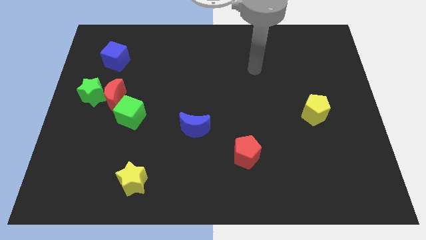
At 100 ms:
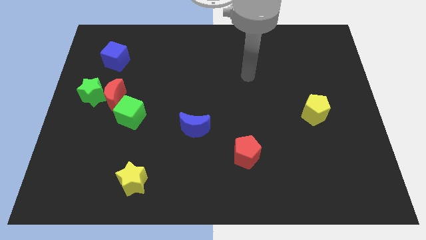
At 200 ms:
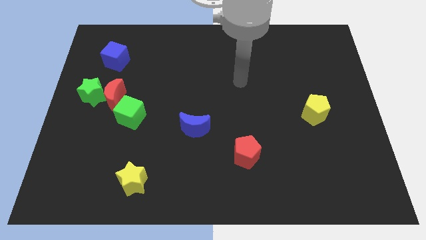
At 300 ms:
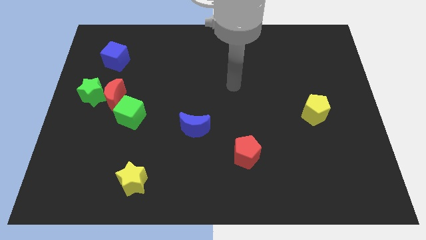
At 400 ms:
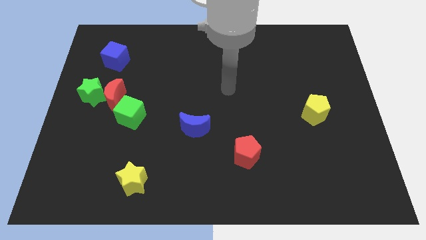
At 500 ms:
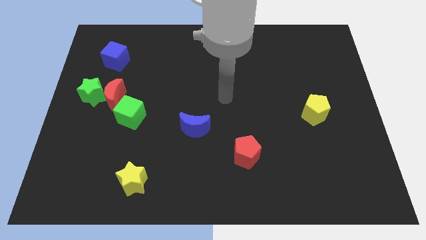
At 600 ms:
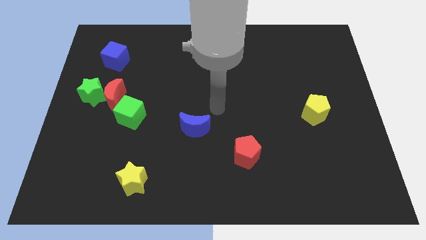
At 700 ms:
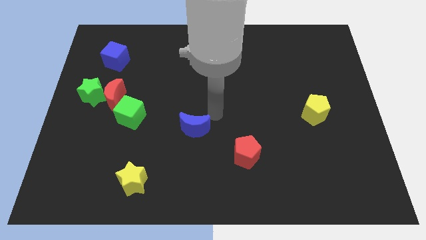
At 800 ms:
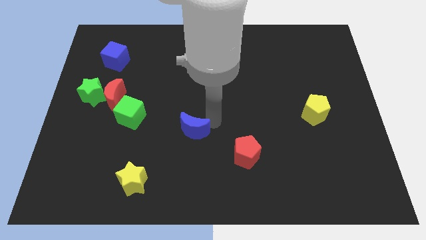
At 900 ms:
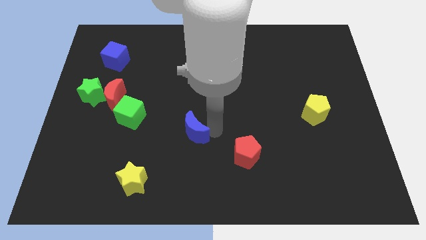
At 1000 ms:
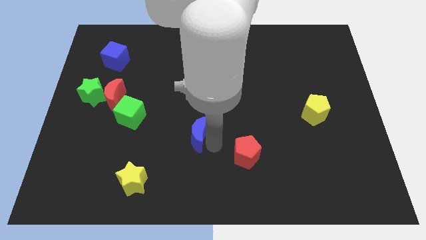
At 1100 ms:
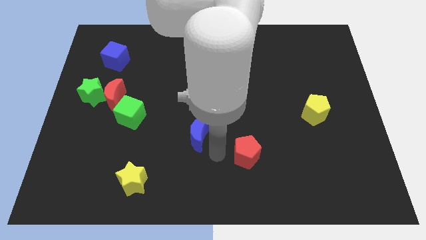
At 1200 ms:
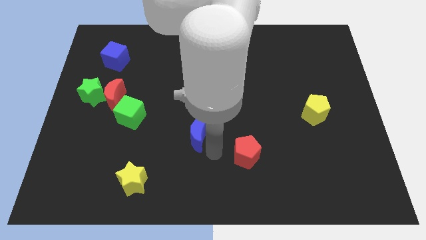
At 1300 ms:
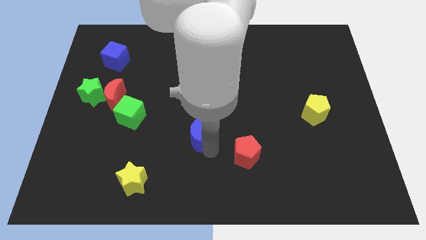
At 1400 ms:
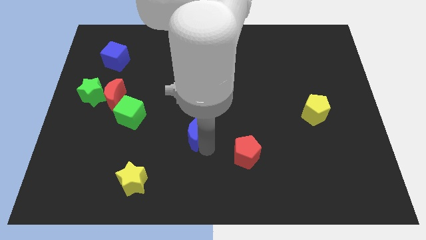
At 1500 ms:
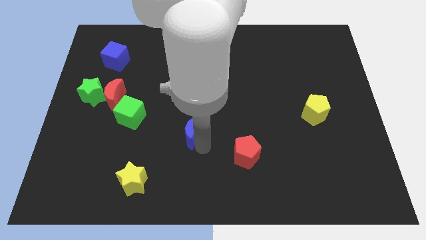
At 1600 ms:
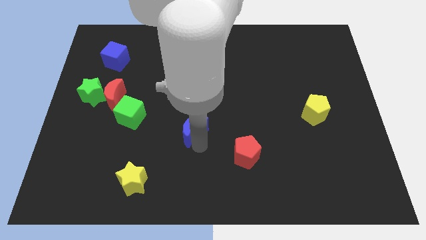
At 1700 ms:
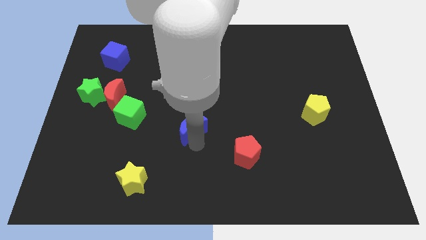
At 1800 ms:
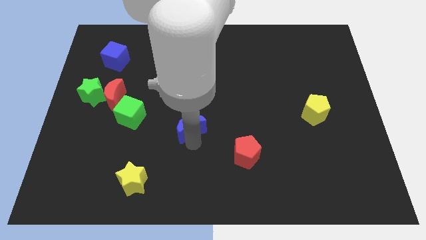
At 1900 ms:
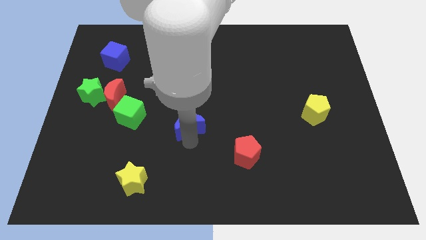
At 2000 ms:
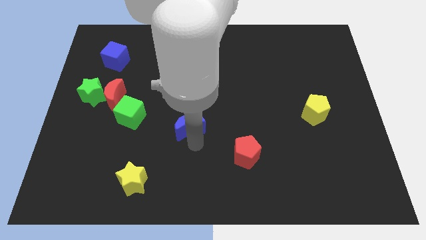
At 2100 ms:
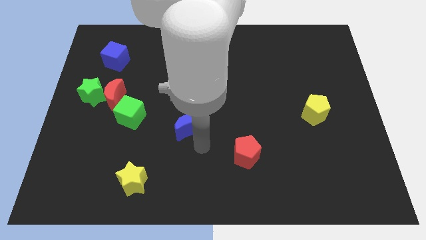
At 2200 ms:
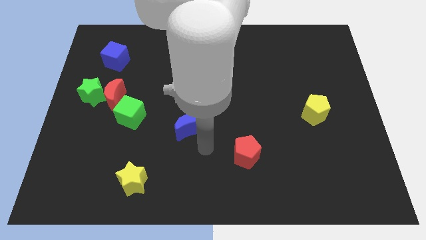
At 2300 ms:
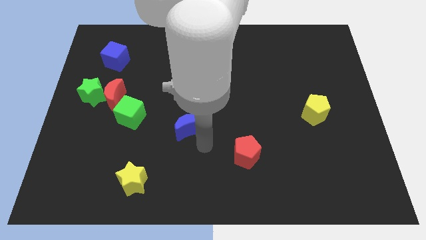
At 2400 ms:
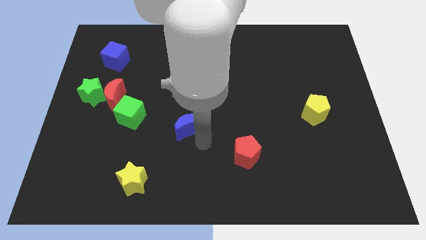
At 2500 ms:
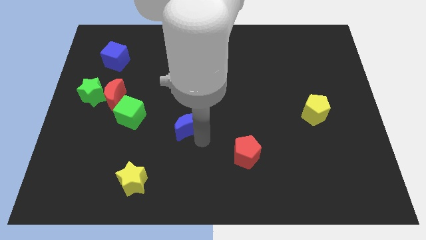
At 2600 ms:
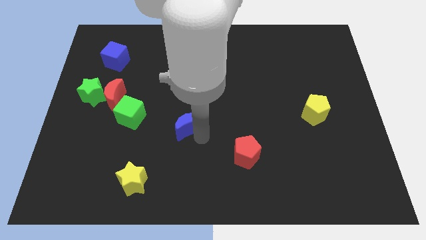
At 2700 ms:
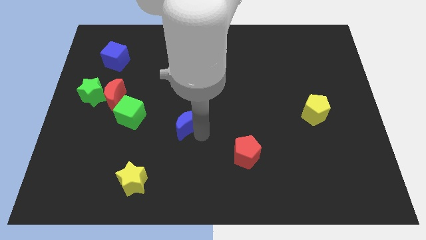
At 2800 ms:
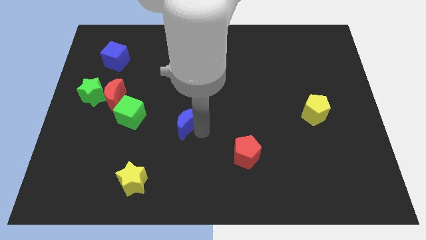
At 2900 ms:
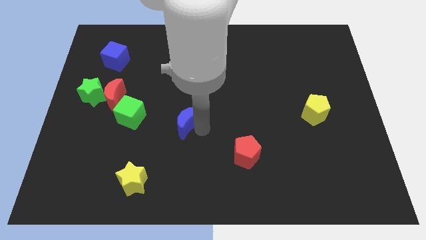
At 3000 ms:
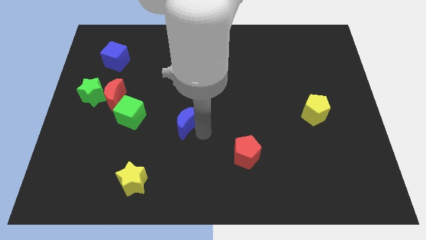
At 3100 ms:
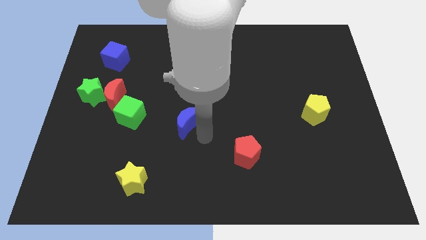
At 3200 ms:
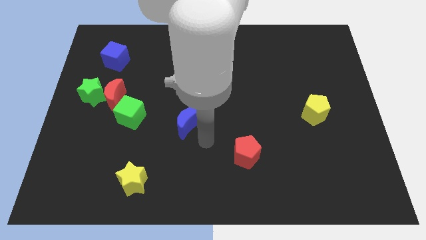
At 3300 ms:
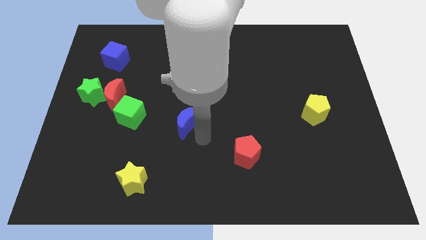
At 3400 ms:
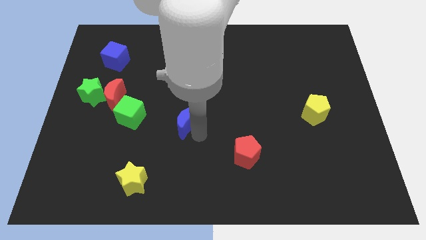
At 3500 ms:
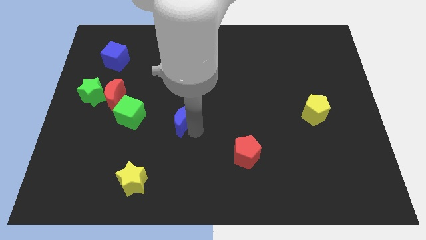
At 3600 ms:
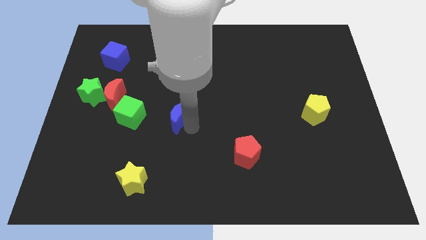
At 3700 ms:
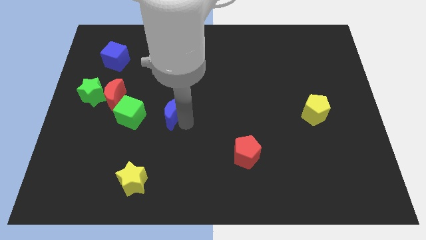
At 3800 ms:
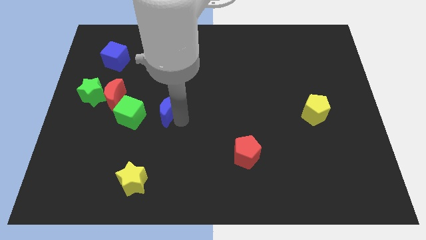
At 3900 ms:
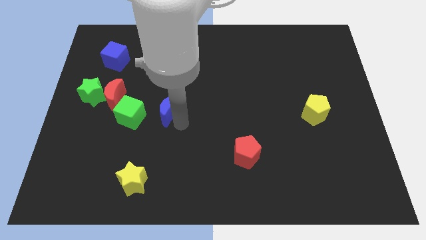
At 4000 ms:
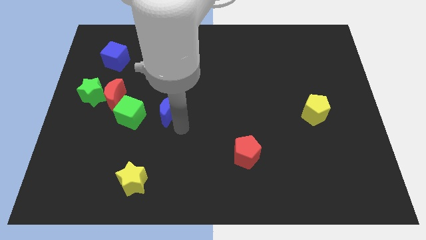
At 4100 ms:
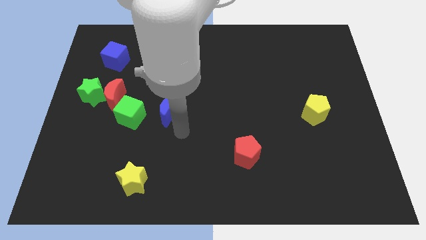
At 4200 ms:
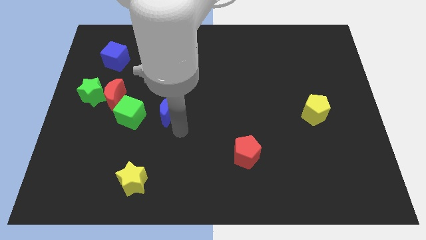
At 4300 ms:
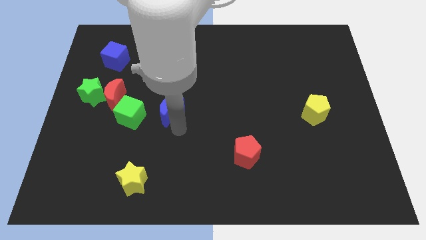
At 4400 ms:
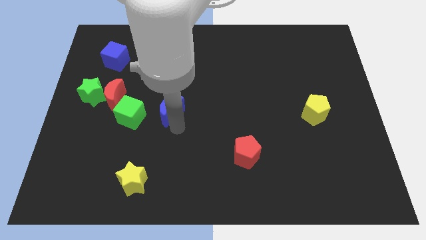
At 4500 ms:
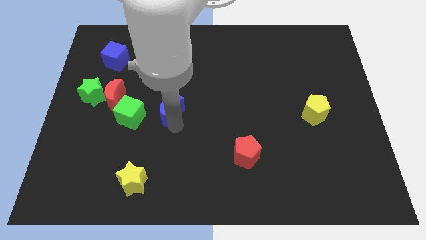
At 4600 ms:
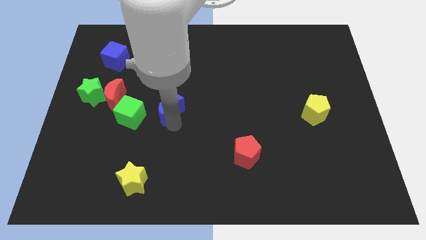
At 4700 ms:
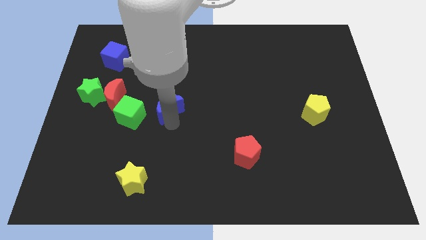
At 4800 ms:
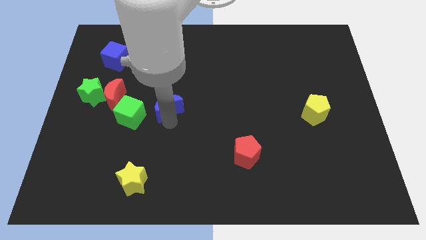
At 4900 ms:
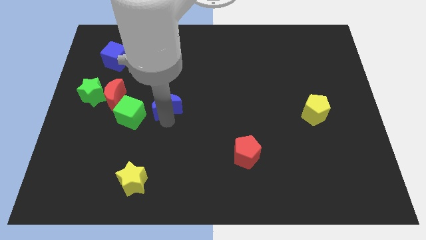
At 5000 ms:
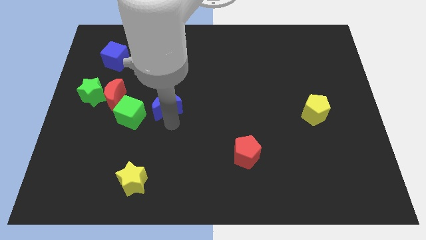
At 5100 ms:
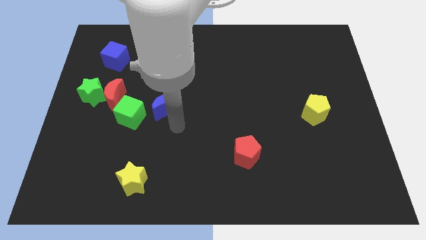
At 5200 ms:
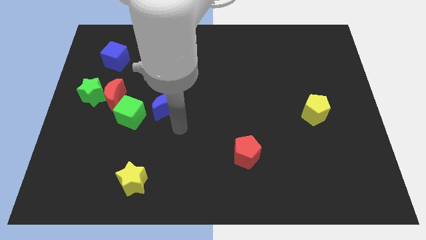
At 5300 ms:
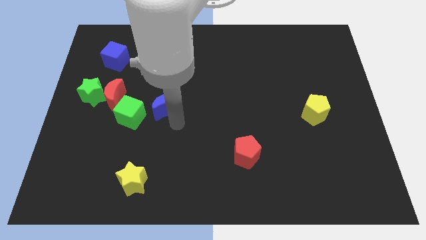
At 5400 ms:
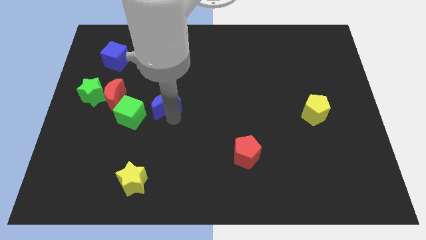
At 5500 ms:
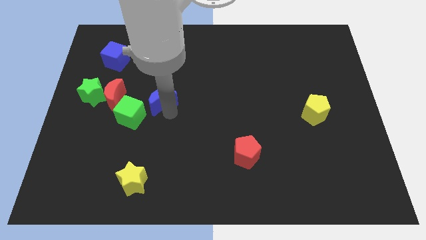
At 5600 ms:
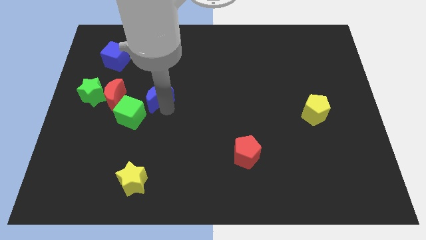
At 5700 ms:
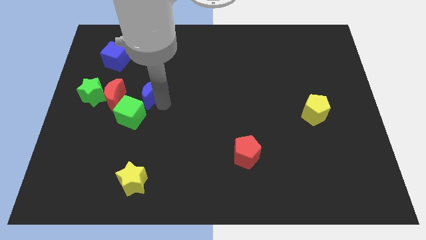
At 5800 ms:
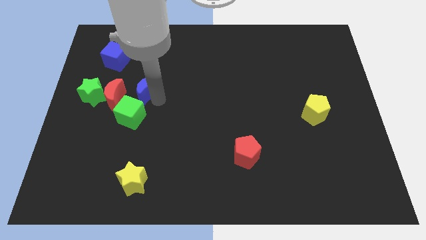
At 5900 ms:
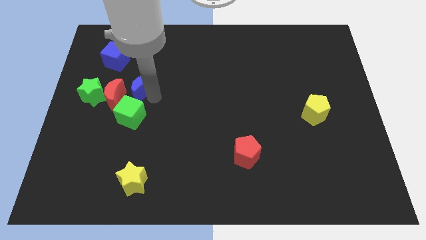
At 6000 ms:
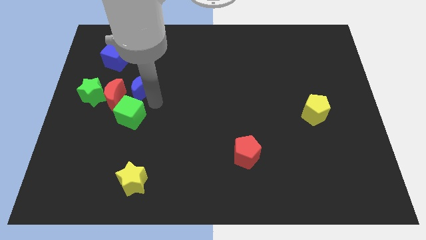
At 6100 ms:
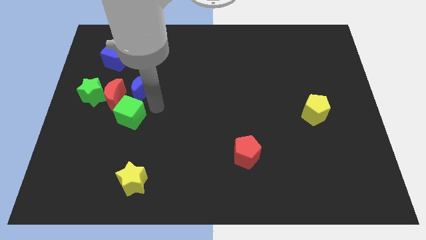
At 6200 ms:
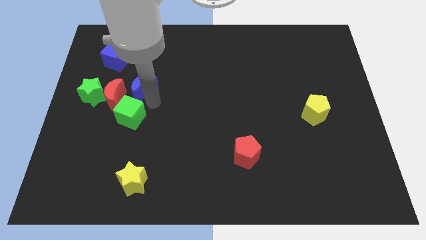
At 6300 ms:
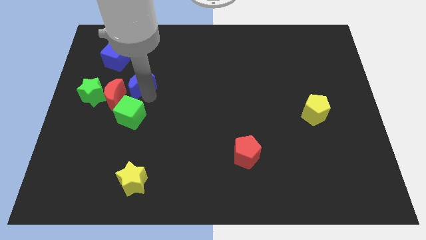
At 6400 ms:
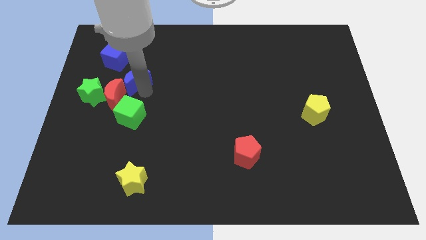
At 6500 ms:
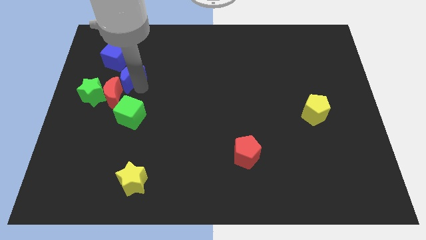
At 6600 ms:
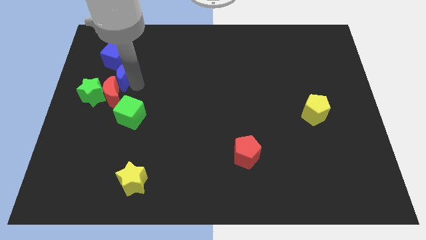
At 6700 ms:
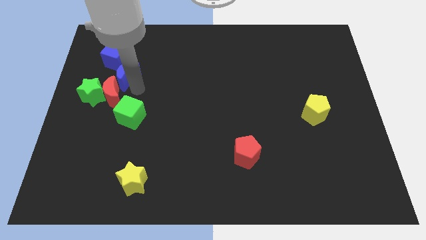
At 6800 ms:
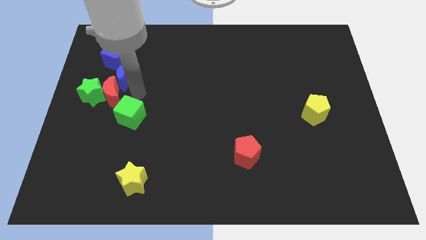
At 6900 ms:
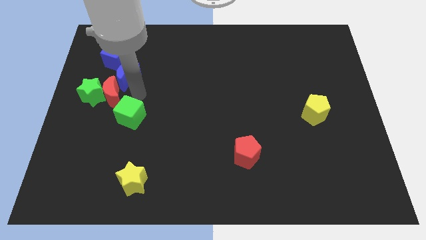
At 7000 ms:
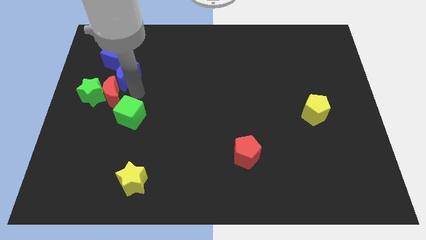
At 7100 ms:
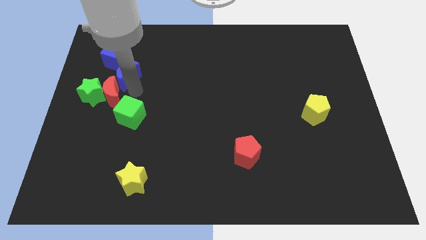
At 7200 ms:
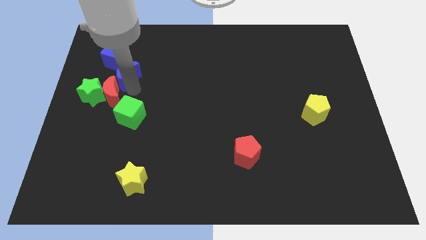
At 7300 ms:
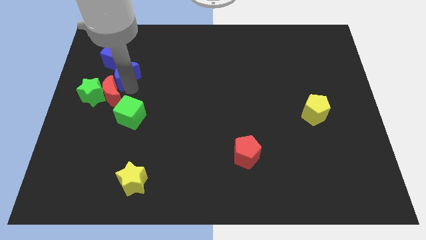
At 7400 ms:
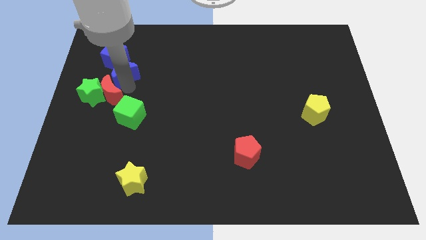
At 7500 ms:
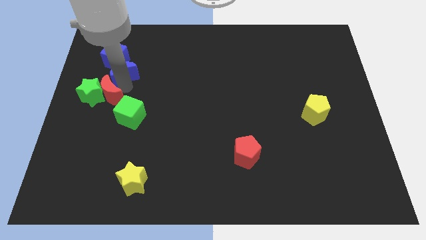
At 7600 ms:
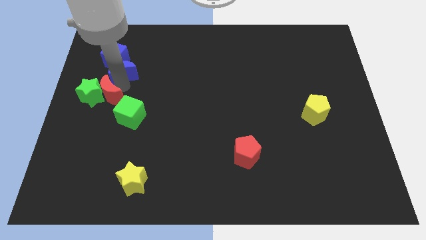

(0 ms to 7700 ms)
move the blue moon close to the blue cube
